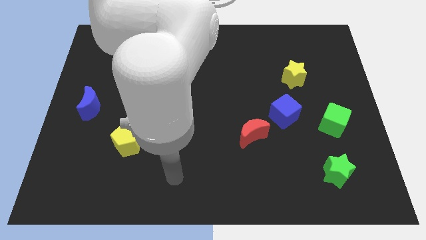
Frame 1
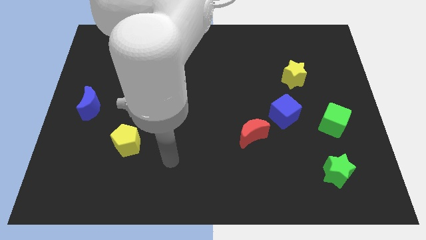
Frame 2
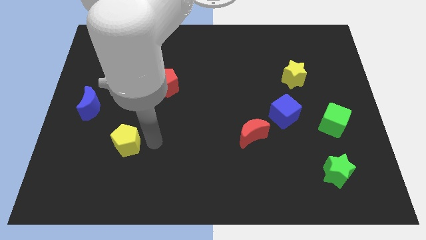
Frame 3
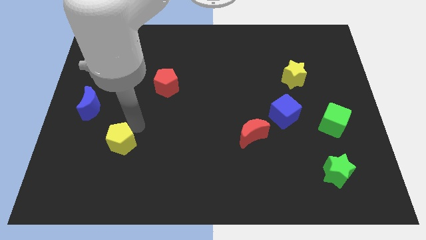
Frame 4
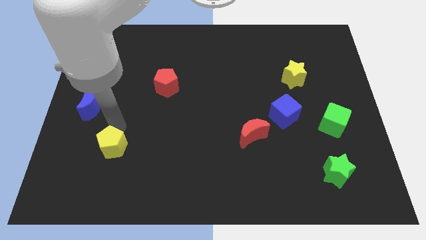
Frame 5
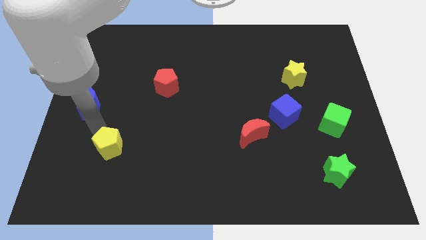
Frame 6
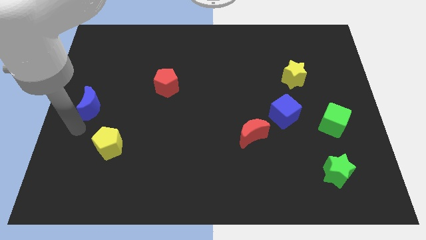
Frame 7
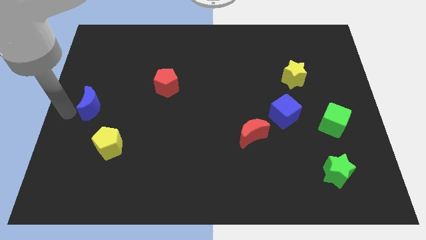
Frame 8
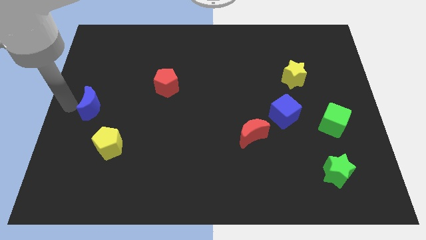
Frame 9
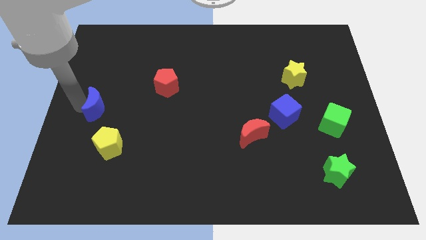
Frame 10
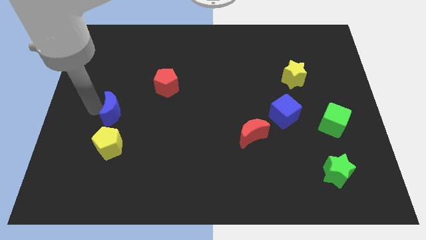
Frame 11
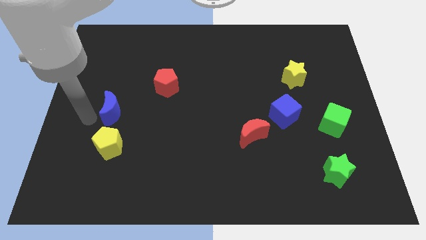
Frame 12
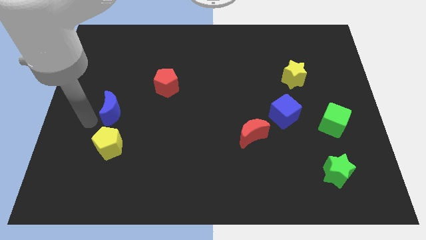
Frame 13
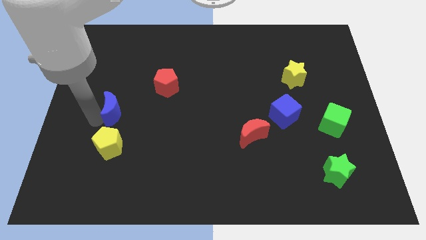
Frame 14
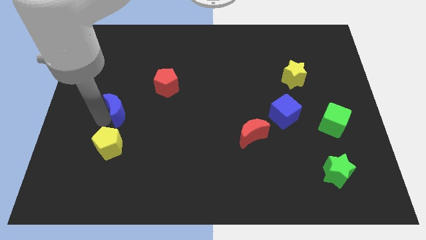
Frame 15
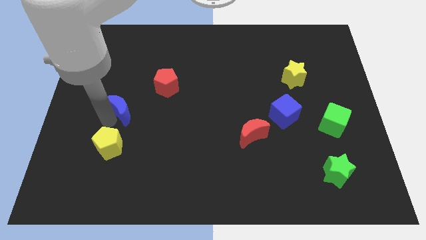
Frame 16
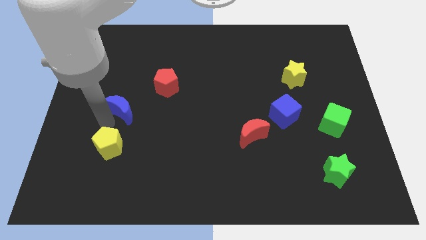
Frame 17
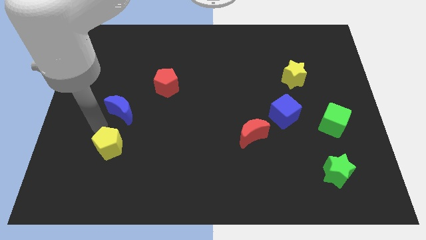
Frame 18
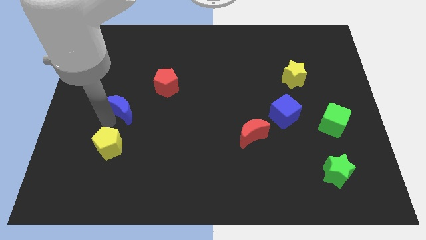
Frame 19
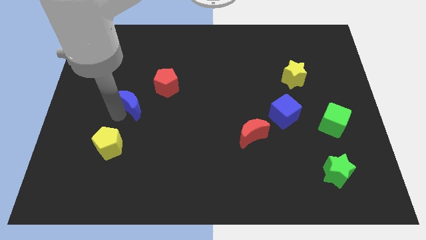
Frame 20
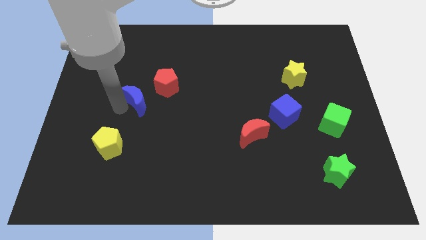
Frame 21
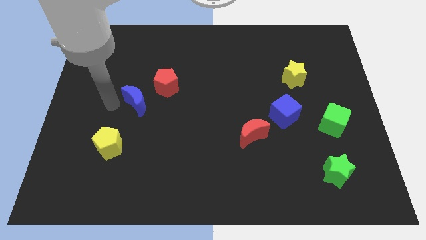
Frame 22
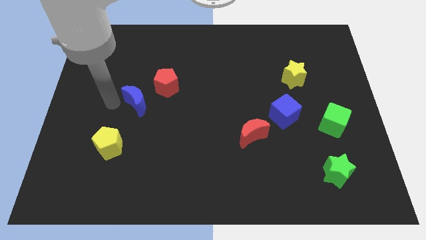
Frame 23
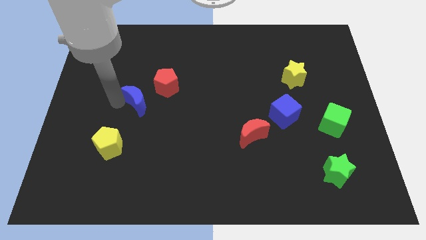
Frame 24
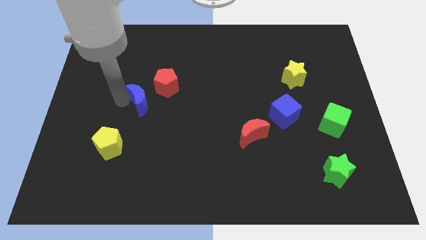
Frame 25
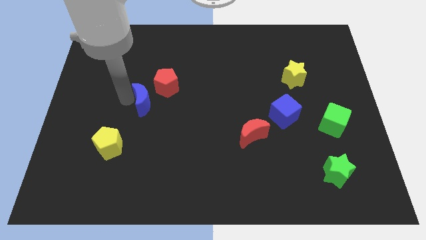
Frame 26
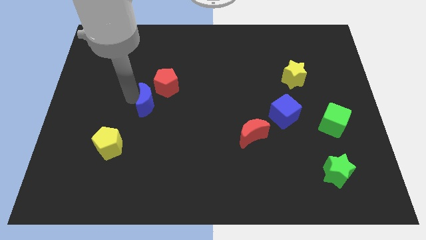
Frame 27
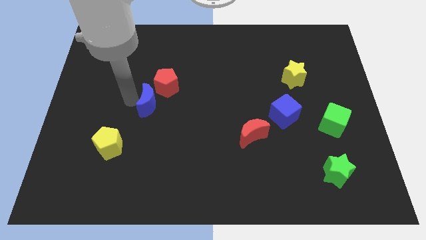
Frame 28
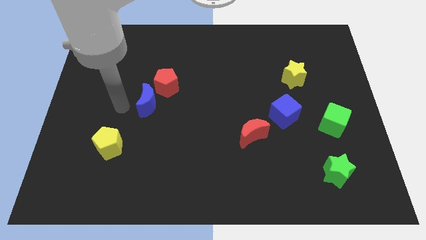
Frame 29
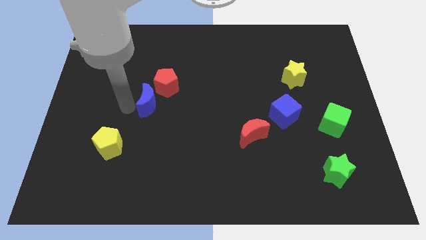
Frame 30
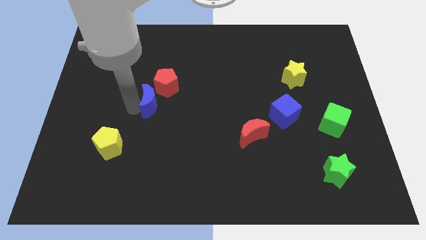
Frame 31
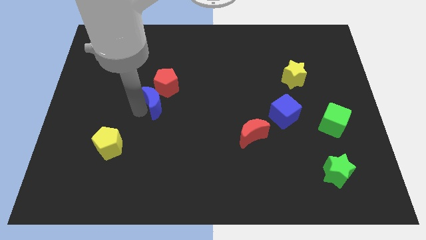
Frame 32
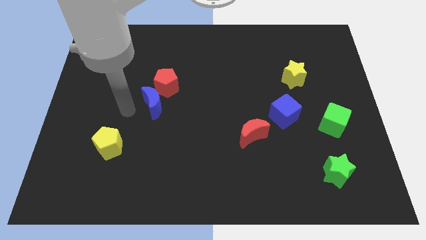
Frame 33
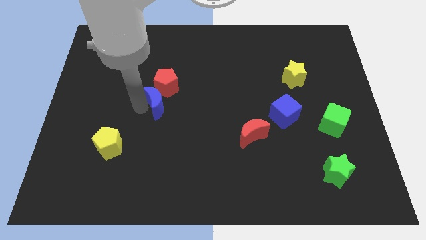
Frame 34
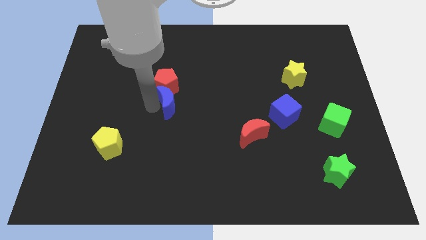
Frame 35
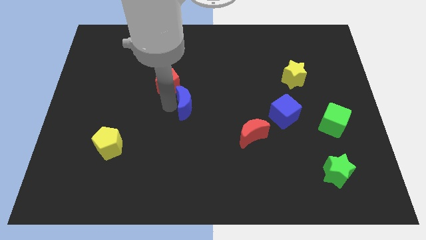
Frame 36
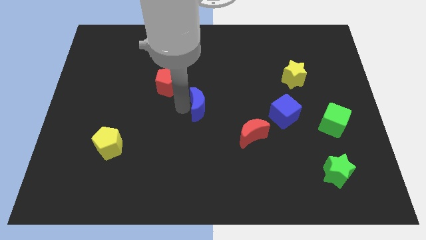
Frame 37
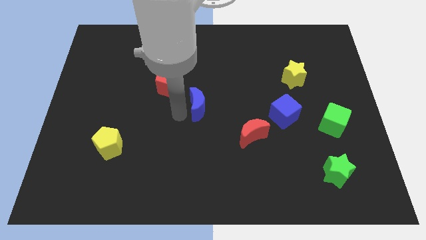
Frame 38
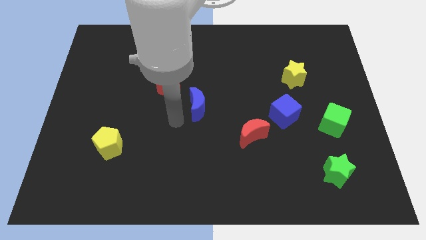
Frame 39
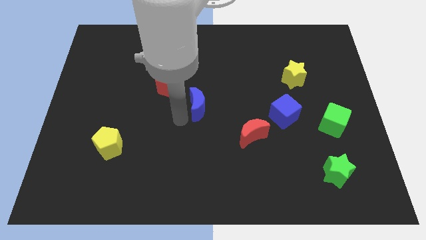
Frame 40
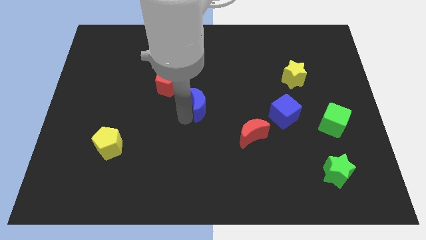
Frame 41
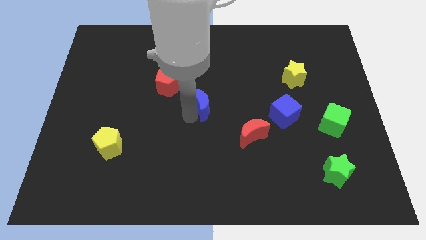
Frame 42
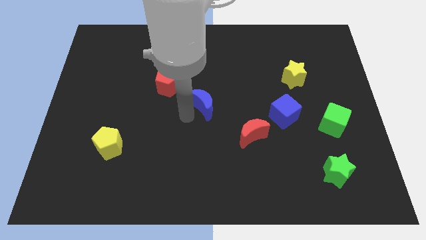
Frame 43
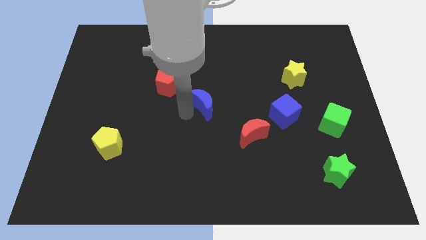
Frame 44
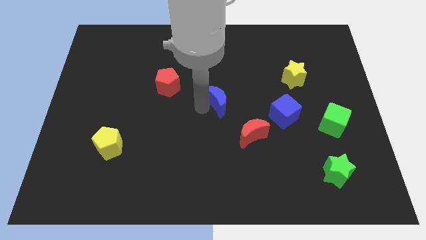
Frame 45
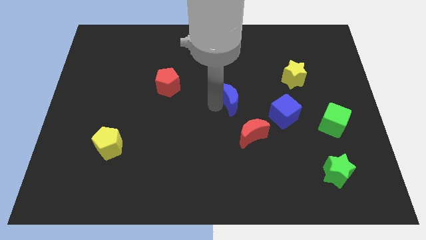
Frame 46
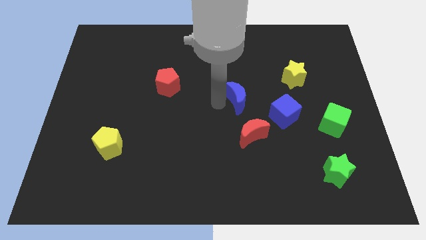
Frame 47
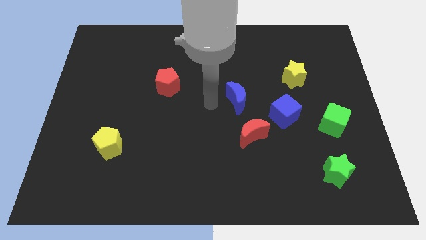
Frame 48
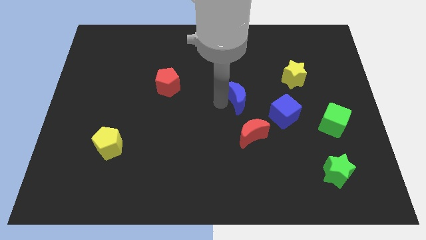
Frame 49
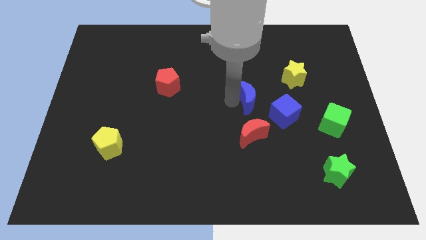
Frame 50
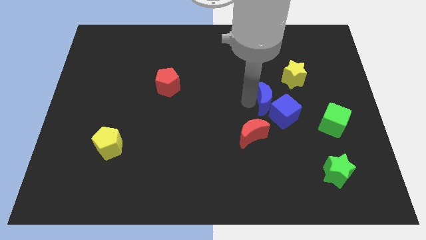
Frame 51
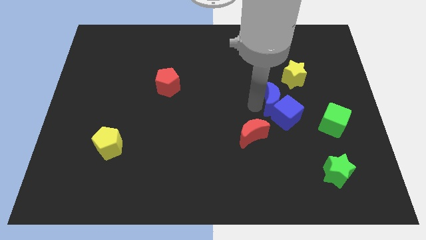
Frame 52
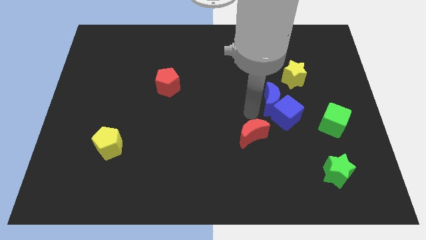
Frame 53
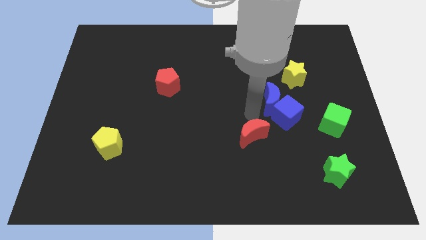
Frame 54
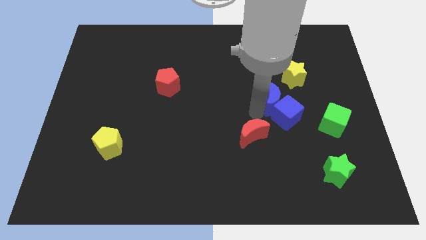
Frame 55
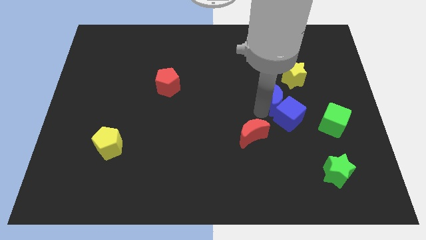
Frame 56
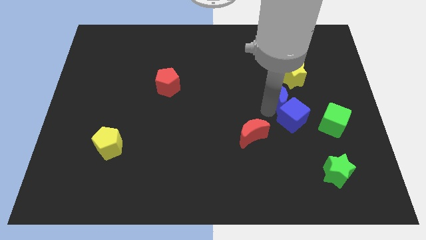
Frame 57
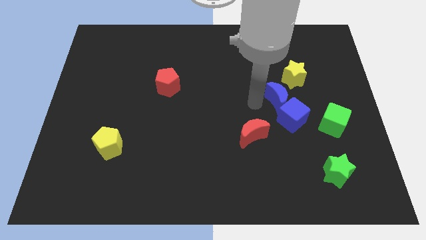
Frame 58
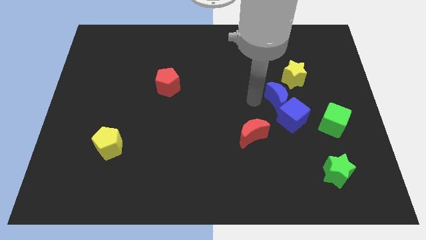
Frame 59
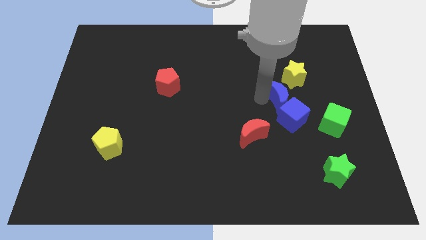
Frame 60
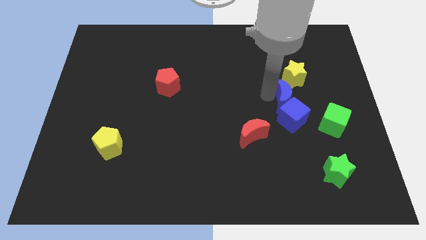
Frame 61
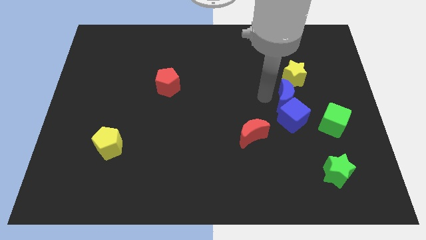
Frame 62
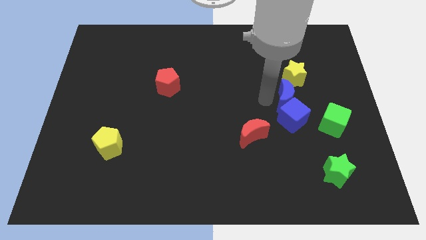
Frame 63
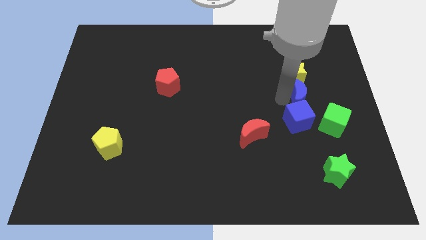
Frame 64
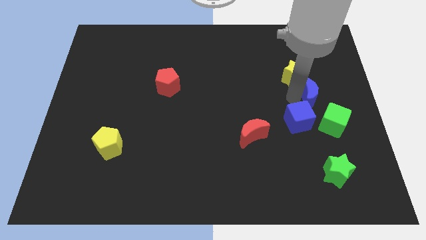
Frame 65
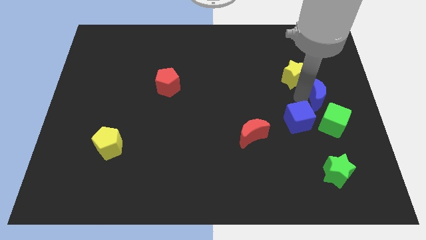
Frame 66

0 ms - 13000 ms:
push the blue moon to the center right
